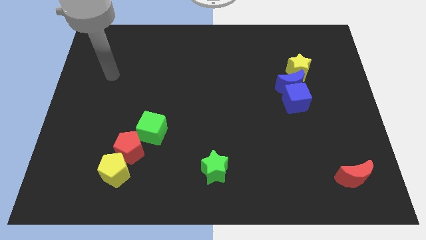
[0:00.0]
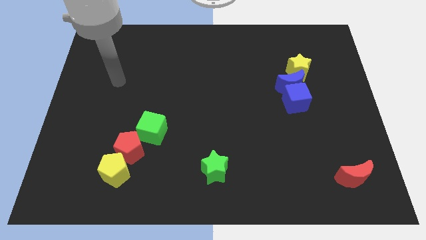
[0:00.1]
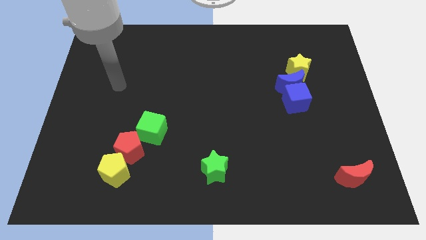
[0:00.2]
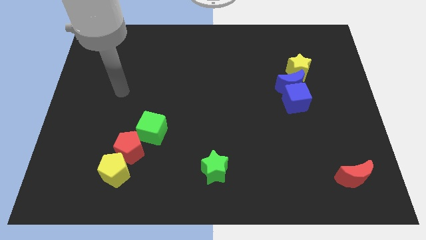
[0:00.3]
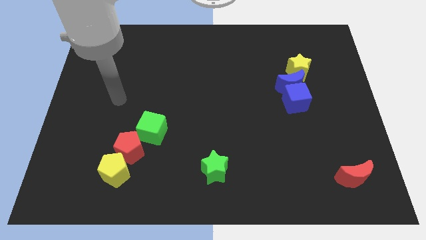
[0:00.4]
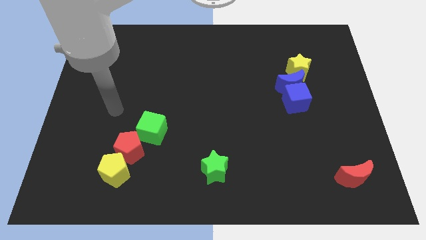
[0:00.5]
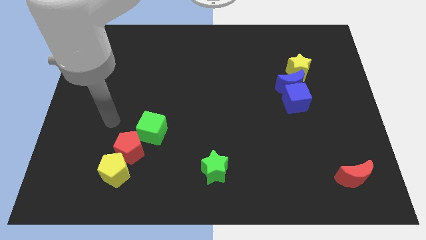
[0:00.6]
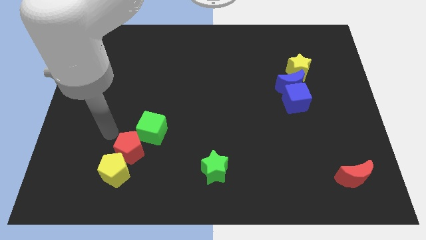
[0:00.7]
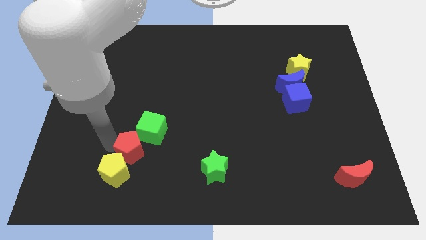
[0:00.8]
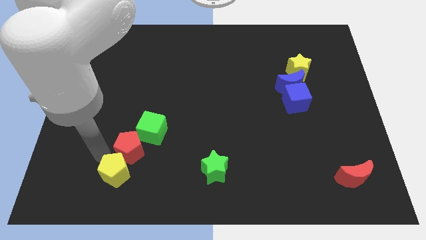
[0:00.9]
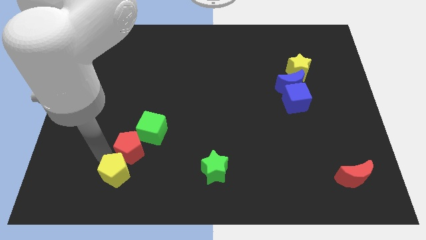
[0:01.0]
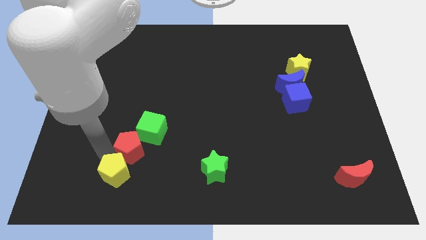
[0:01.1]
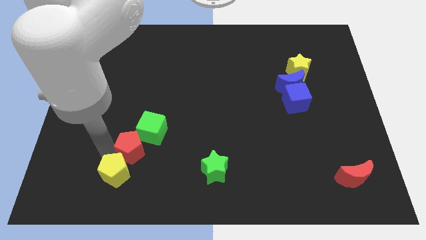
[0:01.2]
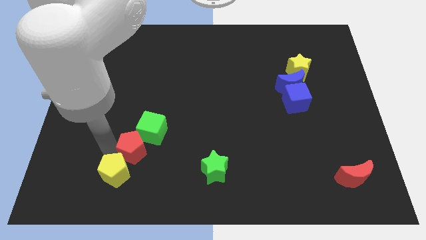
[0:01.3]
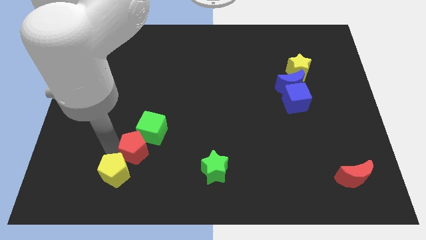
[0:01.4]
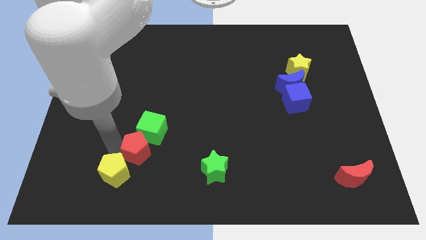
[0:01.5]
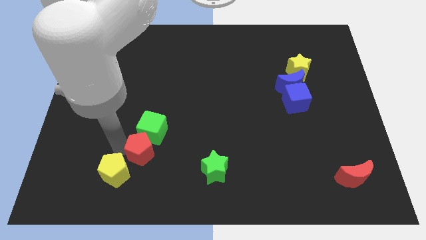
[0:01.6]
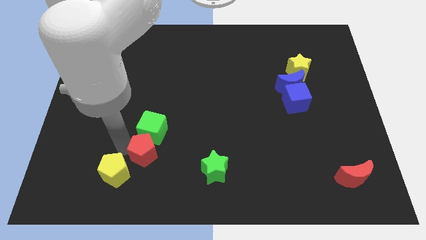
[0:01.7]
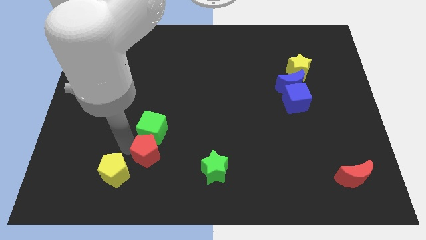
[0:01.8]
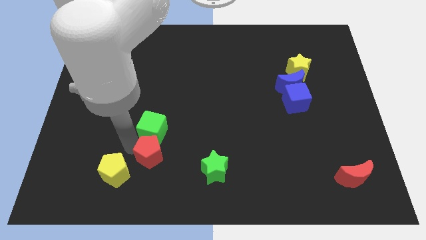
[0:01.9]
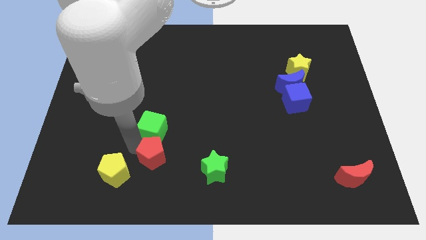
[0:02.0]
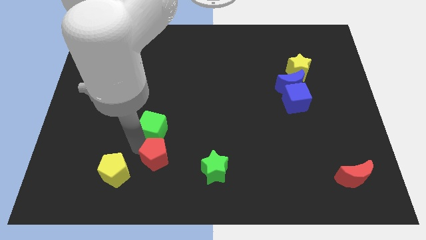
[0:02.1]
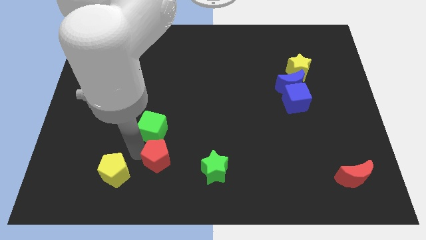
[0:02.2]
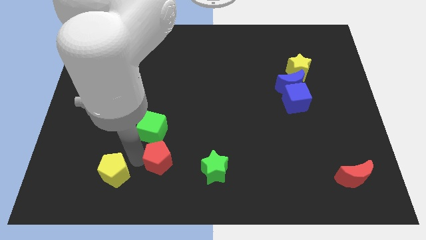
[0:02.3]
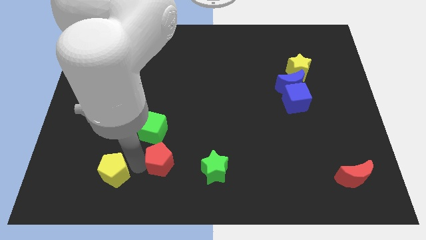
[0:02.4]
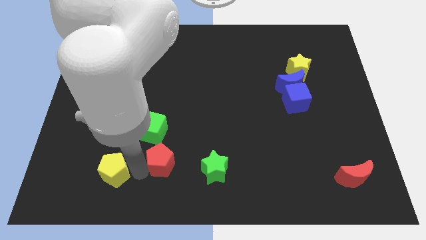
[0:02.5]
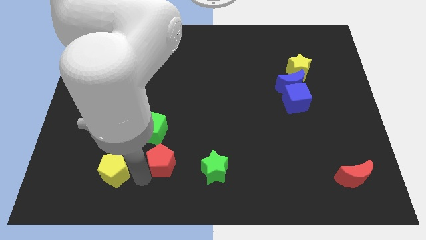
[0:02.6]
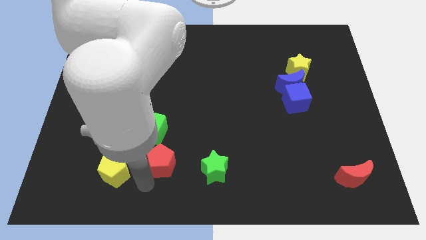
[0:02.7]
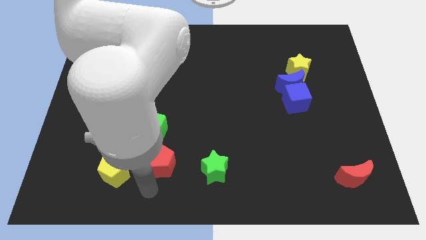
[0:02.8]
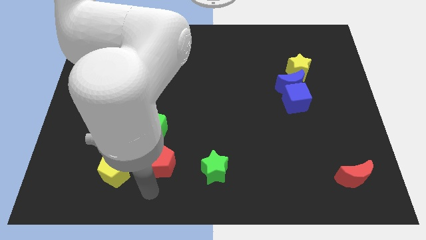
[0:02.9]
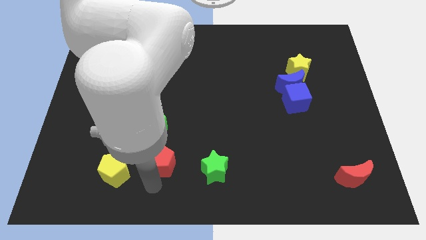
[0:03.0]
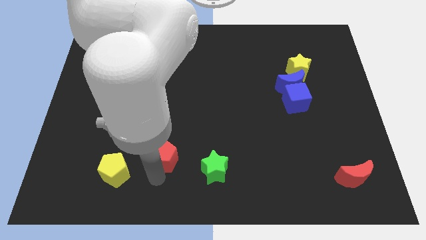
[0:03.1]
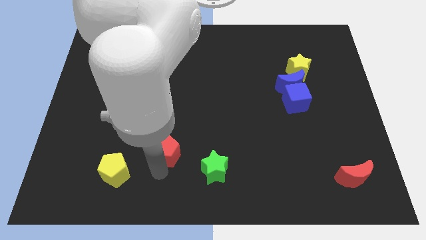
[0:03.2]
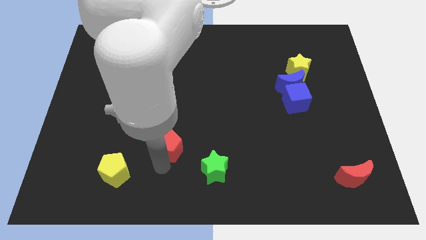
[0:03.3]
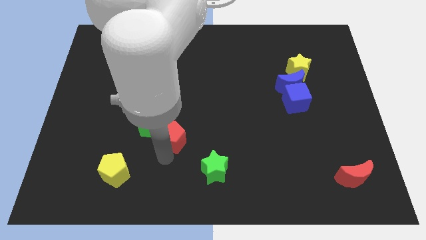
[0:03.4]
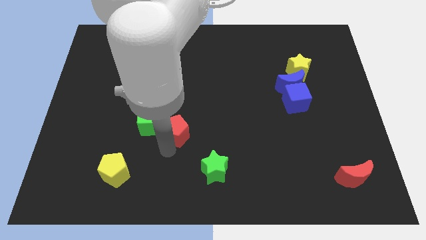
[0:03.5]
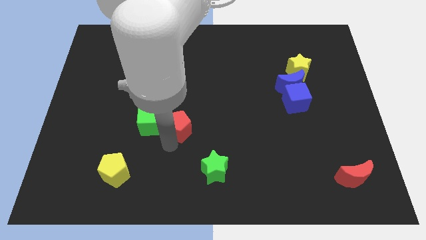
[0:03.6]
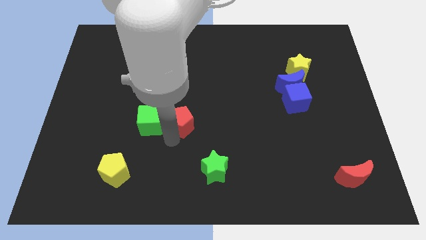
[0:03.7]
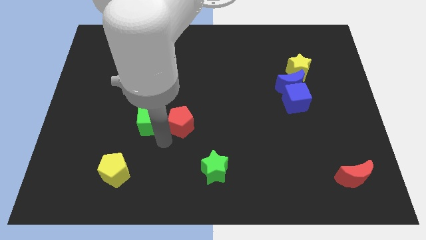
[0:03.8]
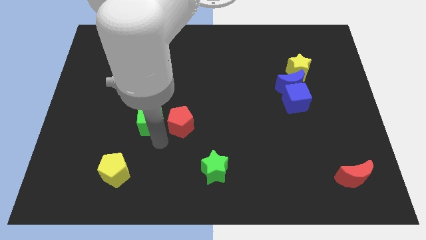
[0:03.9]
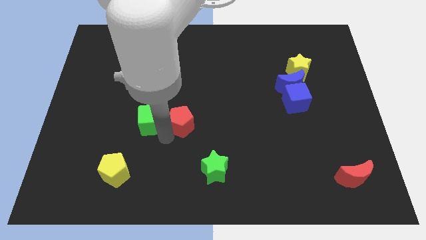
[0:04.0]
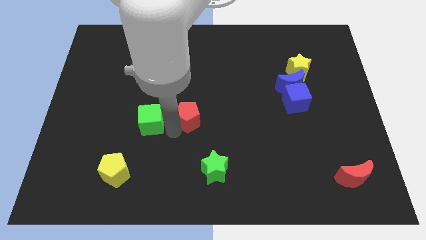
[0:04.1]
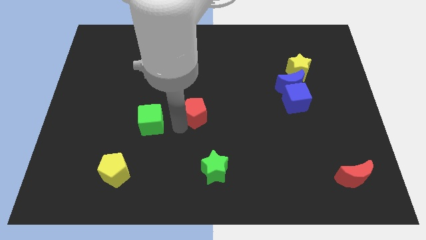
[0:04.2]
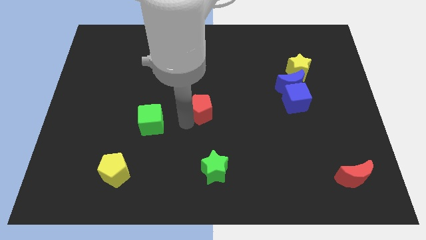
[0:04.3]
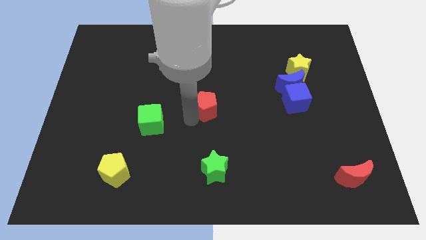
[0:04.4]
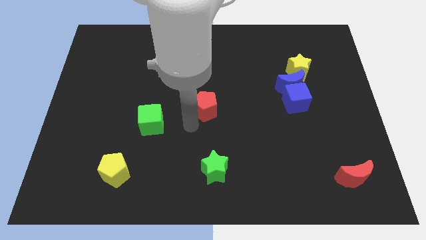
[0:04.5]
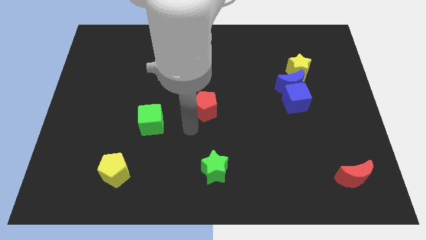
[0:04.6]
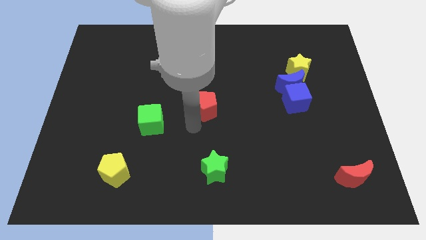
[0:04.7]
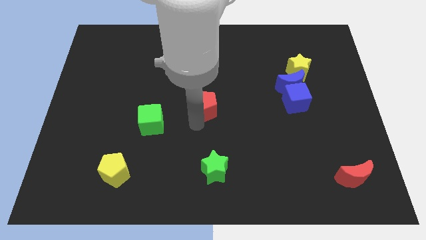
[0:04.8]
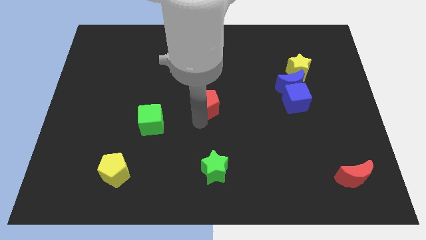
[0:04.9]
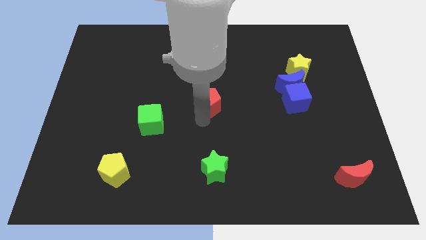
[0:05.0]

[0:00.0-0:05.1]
slide the red pentagon up and to the right

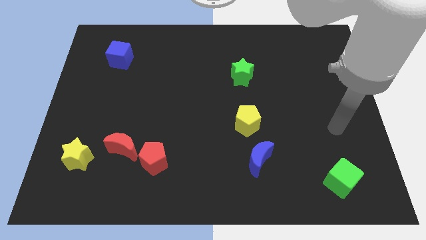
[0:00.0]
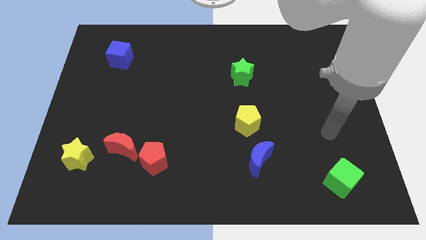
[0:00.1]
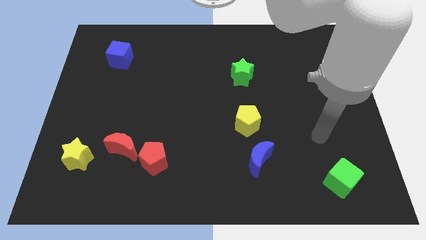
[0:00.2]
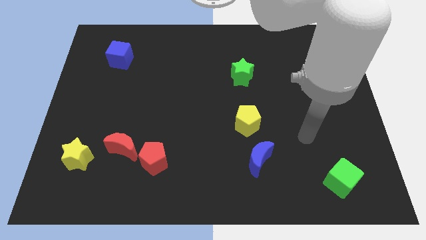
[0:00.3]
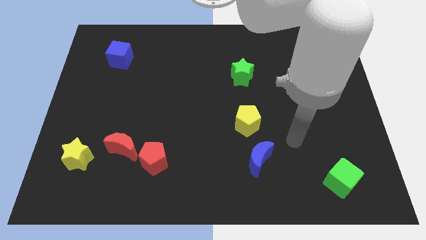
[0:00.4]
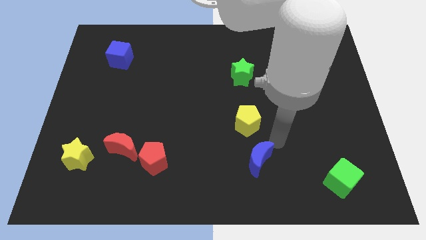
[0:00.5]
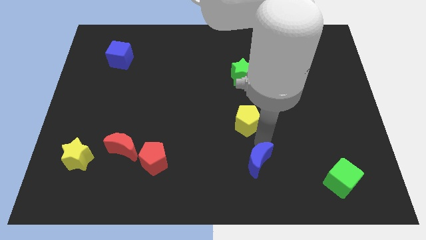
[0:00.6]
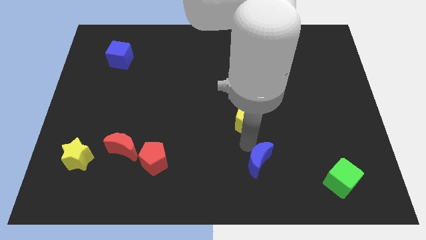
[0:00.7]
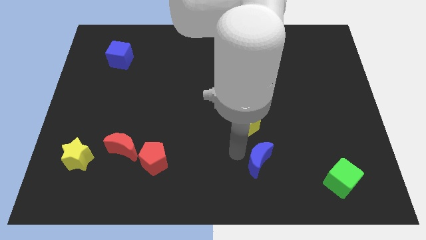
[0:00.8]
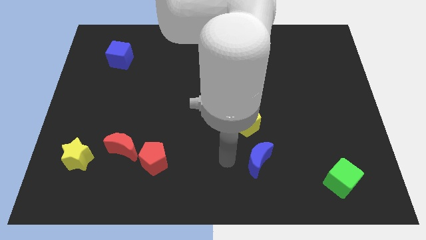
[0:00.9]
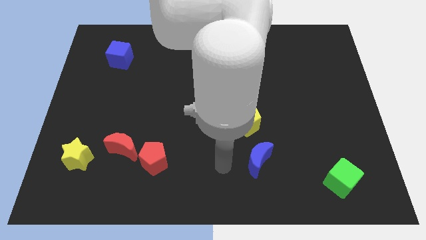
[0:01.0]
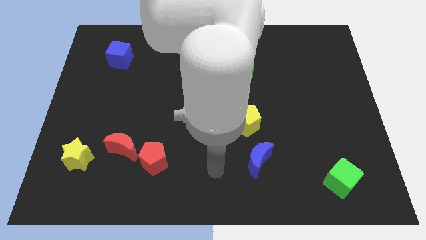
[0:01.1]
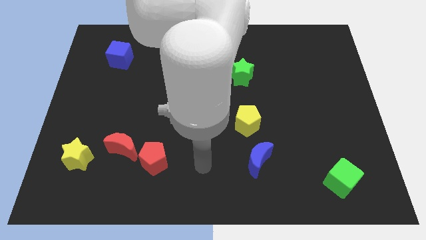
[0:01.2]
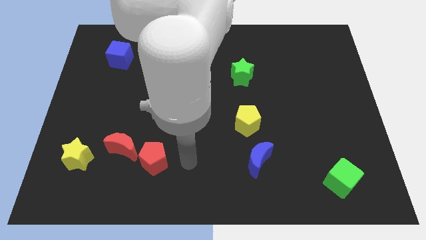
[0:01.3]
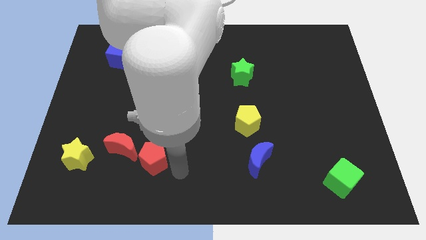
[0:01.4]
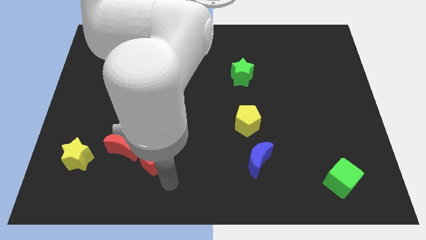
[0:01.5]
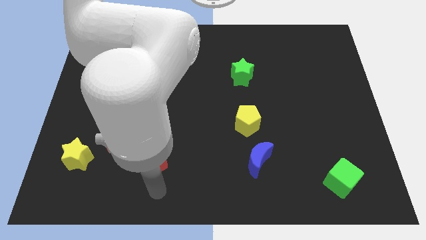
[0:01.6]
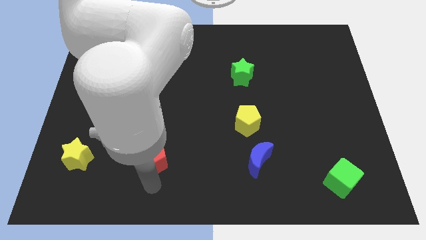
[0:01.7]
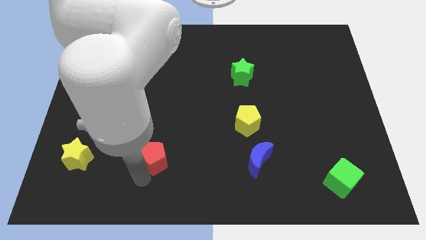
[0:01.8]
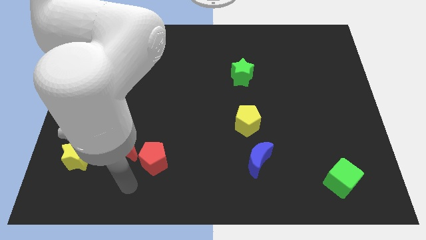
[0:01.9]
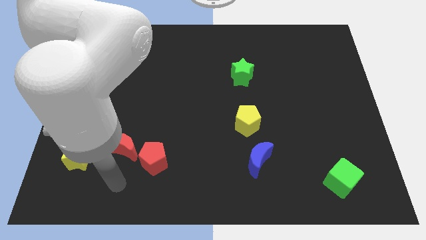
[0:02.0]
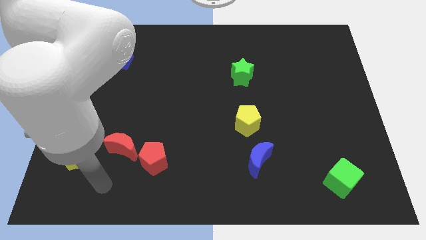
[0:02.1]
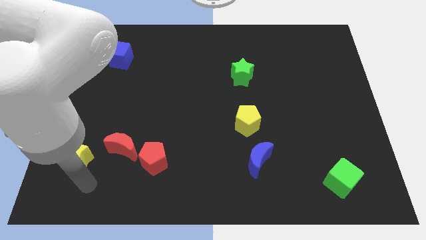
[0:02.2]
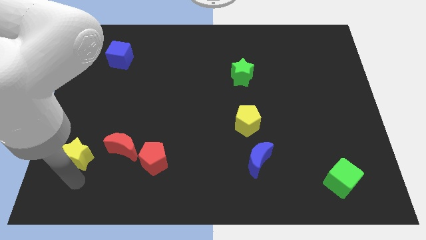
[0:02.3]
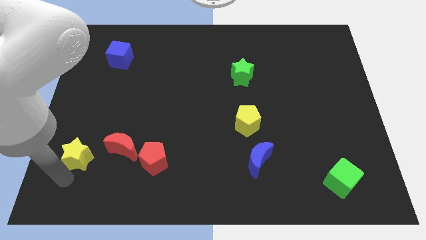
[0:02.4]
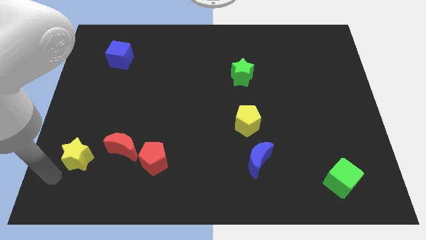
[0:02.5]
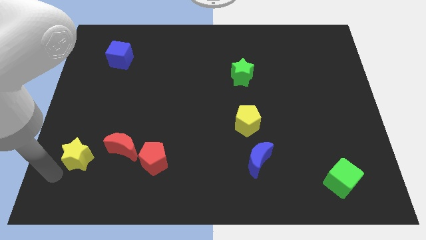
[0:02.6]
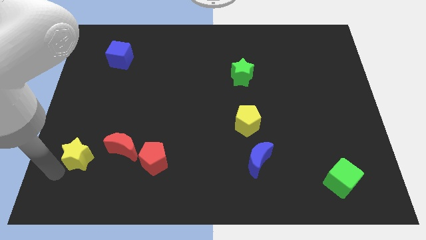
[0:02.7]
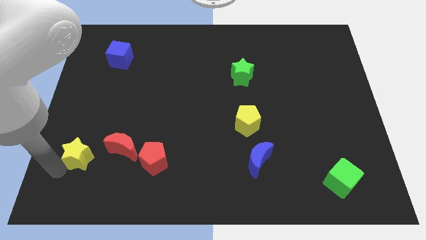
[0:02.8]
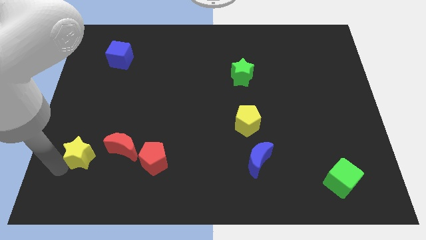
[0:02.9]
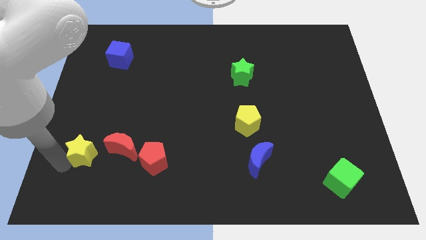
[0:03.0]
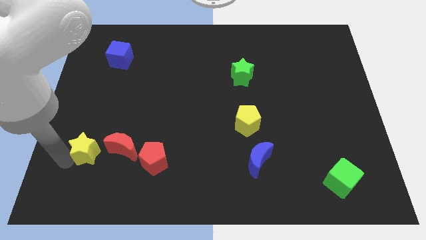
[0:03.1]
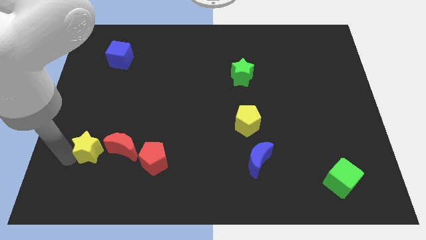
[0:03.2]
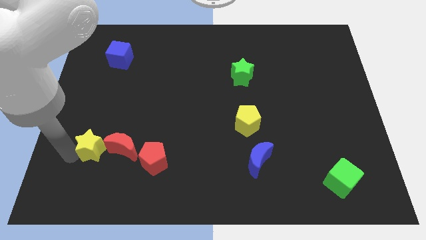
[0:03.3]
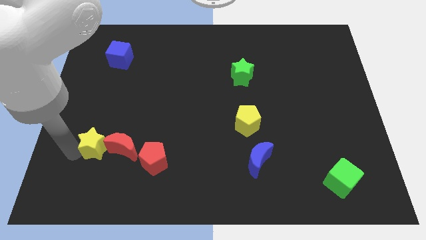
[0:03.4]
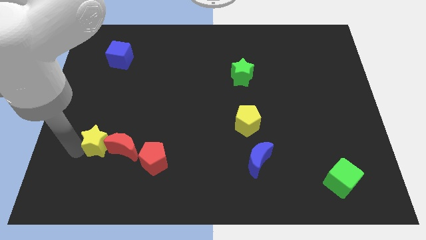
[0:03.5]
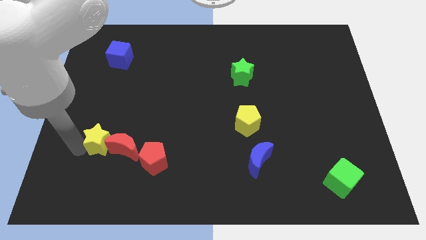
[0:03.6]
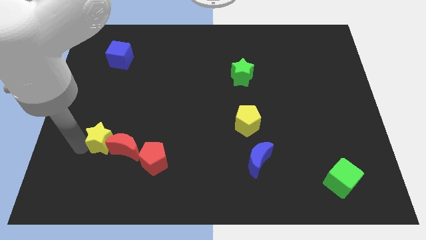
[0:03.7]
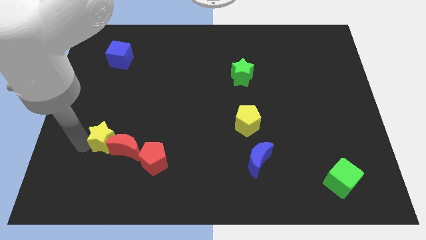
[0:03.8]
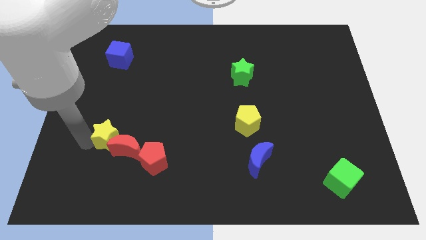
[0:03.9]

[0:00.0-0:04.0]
slide the yellow star somewhat up and right diagonally
